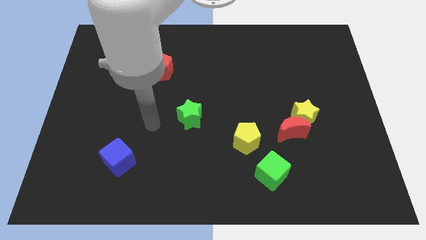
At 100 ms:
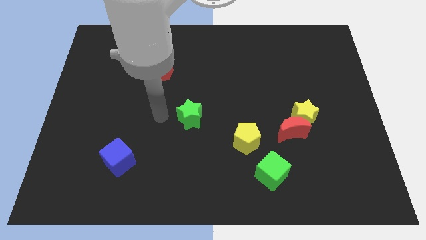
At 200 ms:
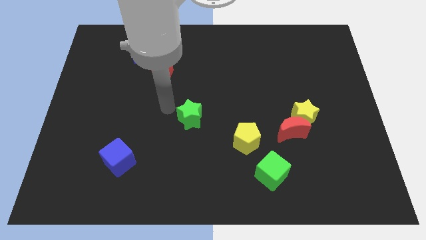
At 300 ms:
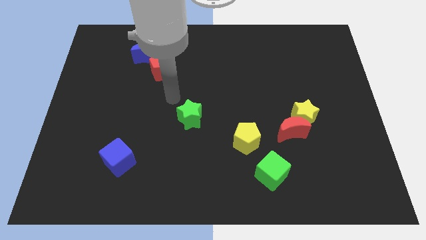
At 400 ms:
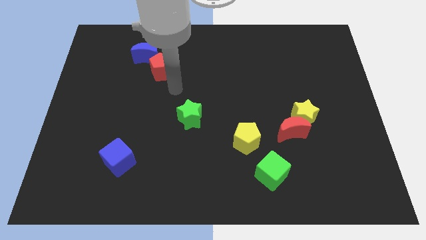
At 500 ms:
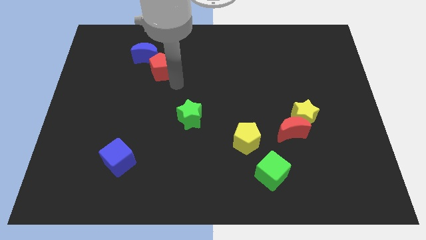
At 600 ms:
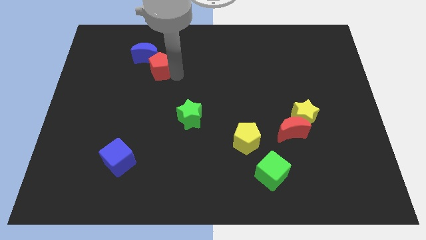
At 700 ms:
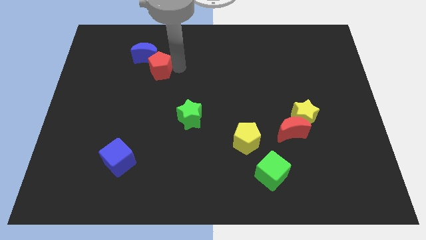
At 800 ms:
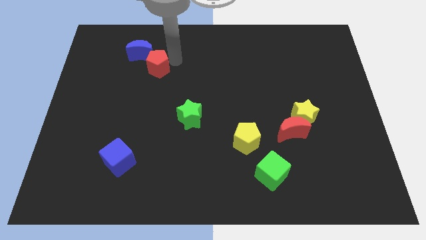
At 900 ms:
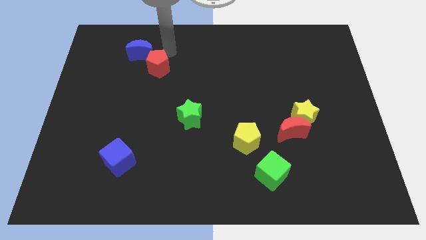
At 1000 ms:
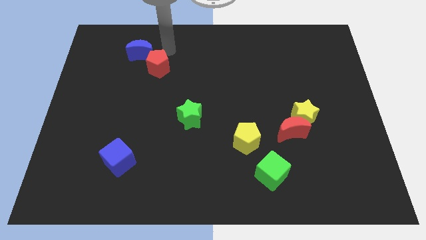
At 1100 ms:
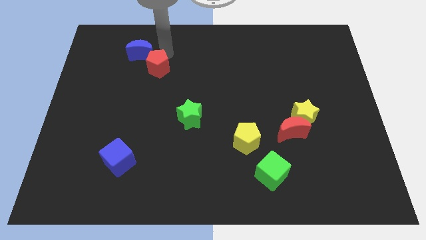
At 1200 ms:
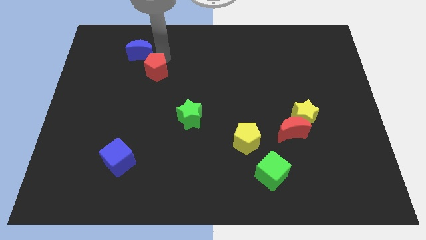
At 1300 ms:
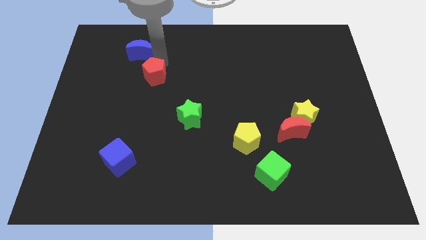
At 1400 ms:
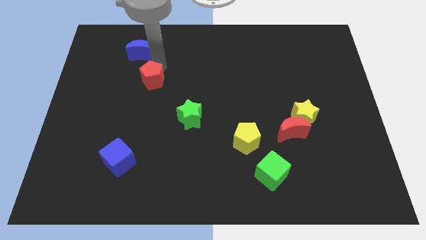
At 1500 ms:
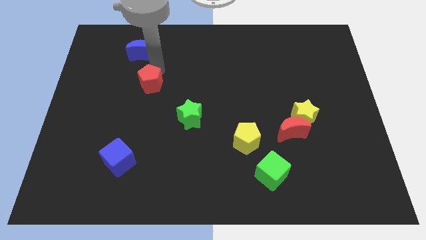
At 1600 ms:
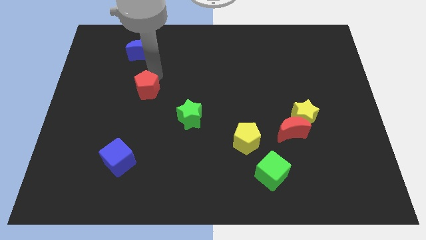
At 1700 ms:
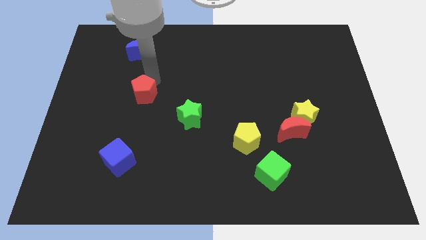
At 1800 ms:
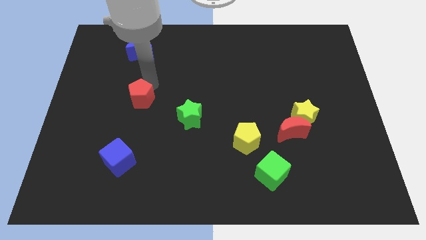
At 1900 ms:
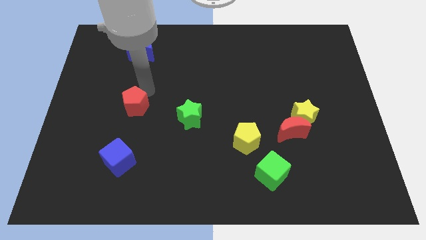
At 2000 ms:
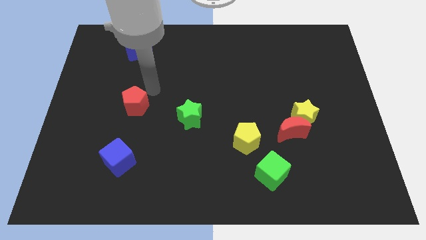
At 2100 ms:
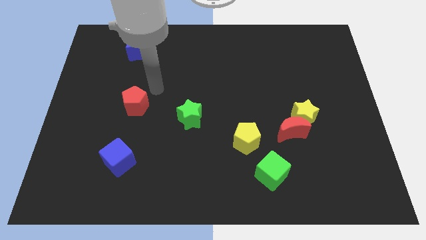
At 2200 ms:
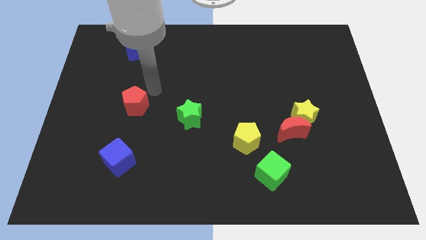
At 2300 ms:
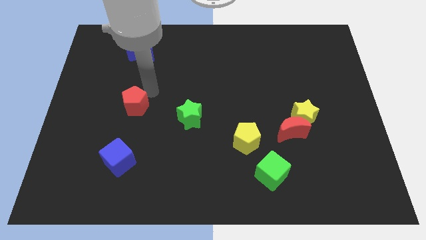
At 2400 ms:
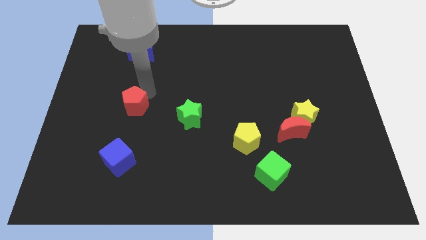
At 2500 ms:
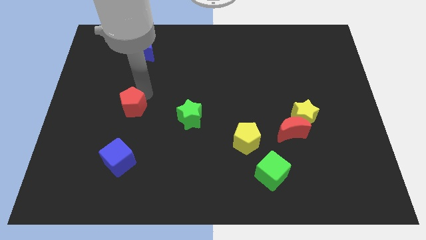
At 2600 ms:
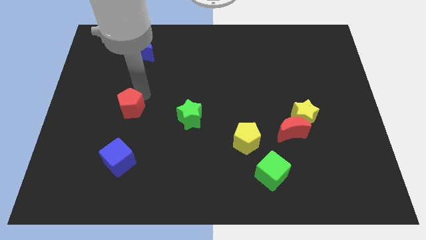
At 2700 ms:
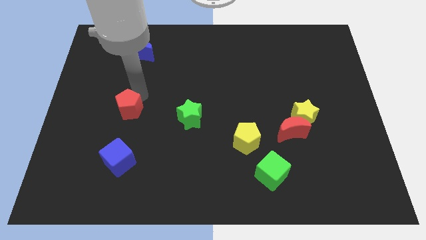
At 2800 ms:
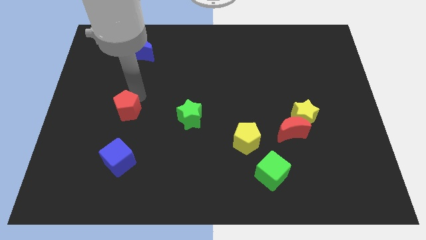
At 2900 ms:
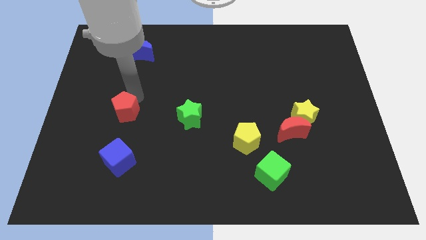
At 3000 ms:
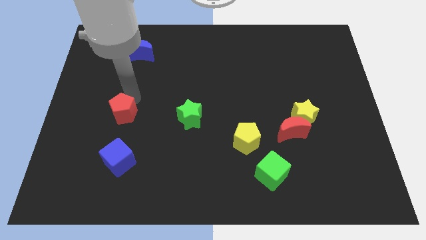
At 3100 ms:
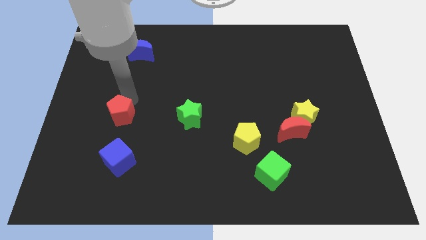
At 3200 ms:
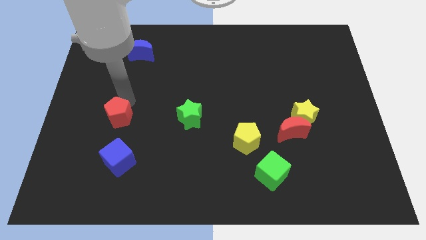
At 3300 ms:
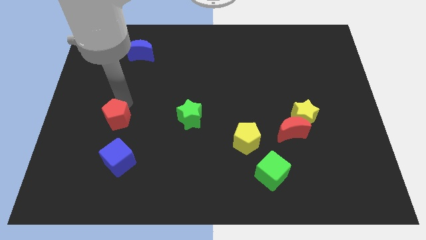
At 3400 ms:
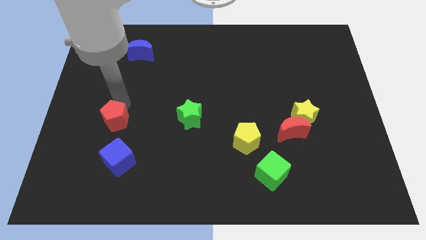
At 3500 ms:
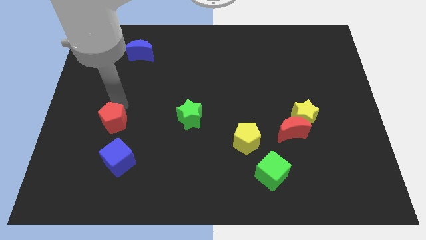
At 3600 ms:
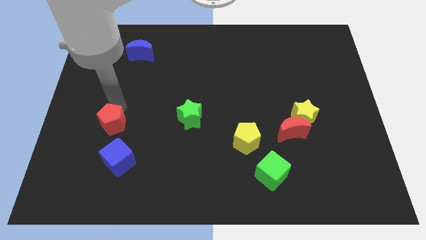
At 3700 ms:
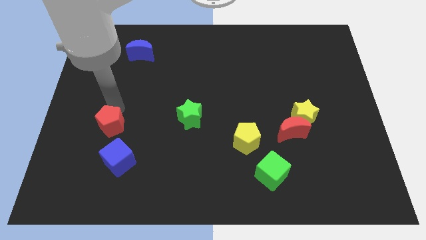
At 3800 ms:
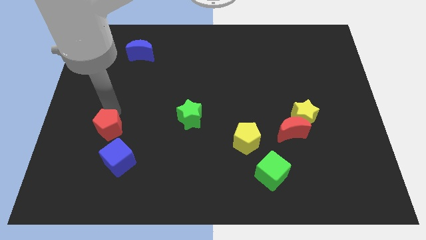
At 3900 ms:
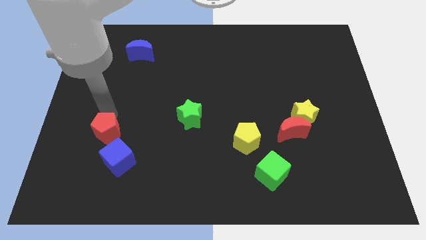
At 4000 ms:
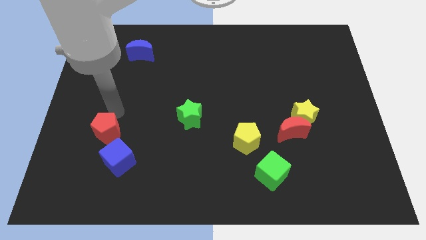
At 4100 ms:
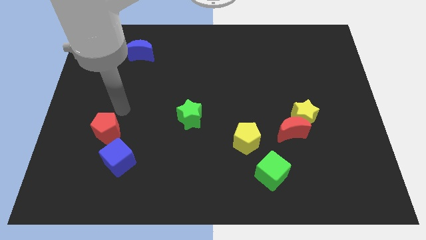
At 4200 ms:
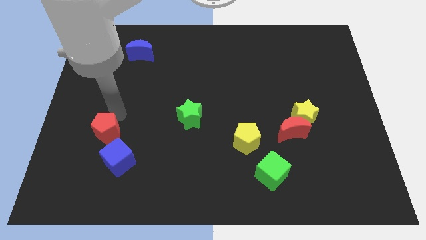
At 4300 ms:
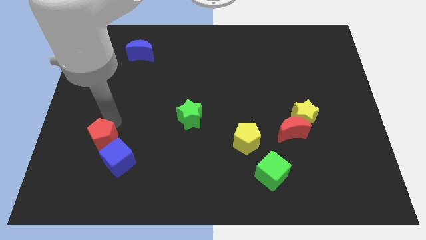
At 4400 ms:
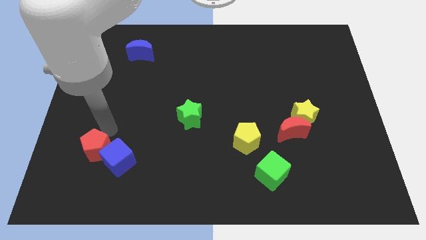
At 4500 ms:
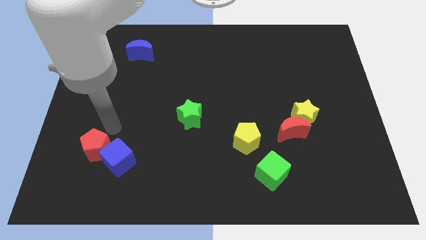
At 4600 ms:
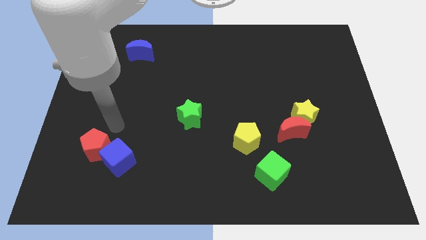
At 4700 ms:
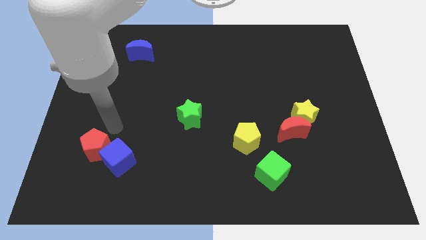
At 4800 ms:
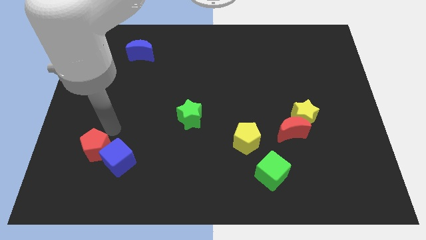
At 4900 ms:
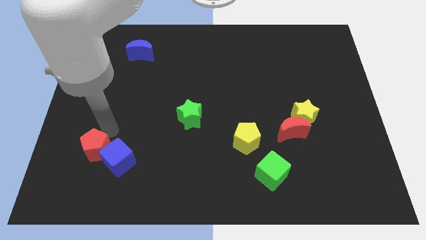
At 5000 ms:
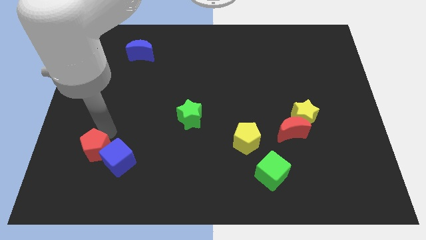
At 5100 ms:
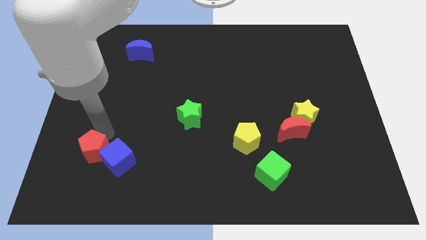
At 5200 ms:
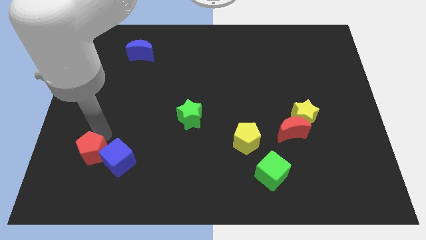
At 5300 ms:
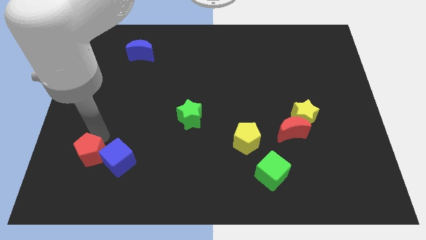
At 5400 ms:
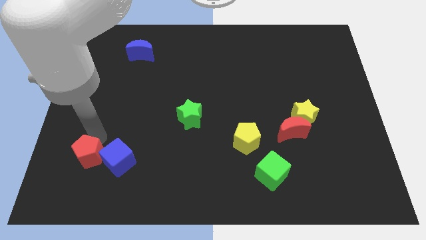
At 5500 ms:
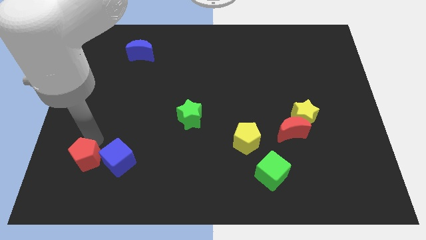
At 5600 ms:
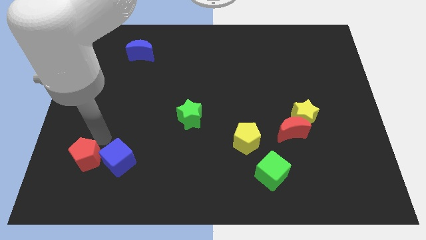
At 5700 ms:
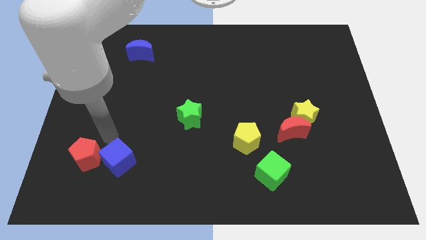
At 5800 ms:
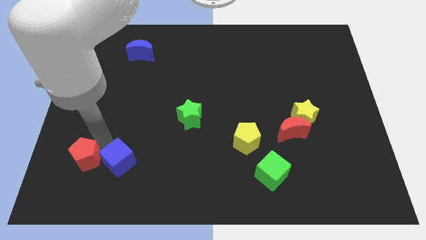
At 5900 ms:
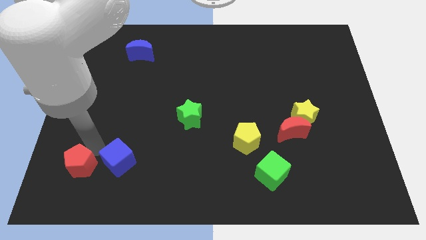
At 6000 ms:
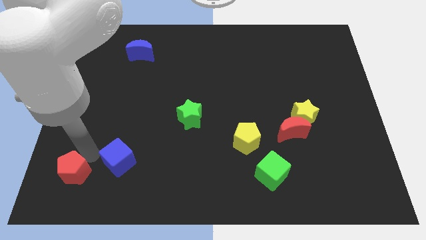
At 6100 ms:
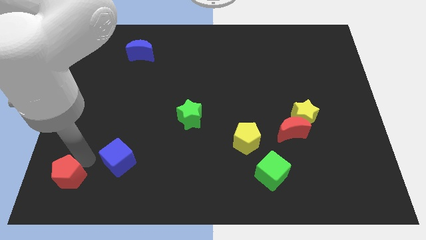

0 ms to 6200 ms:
push the red pentagon to the lower left corner
